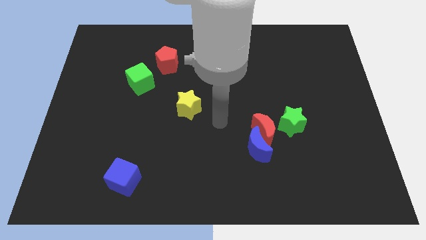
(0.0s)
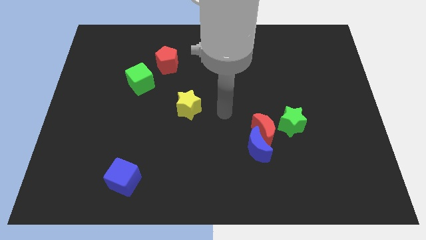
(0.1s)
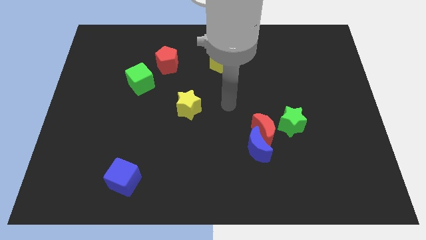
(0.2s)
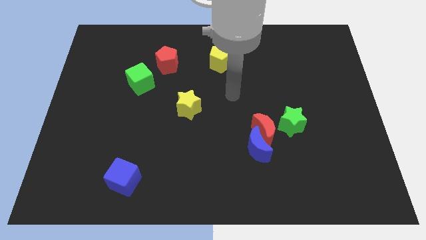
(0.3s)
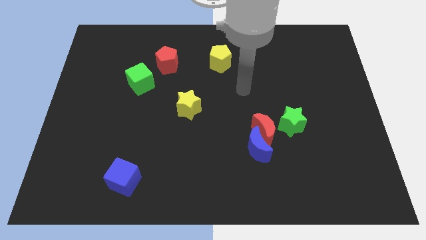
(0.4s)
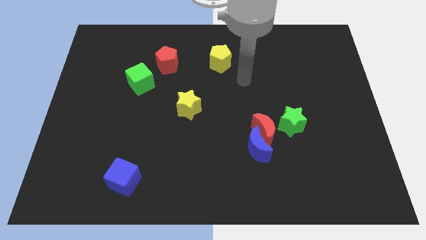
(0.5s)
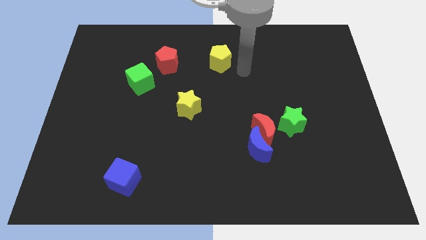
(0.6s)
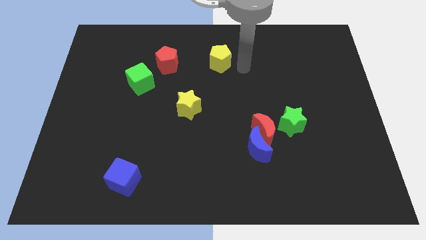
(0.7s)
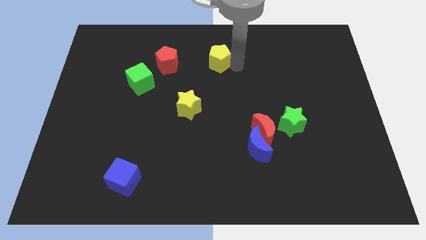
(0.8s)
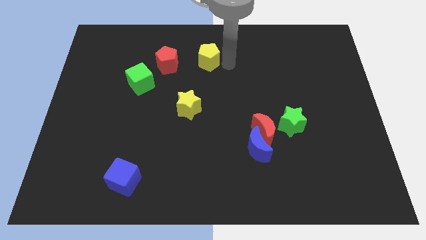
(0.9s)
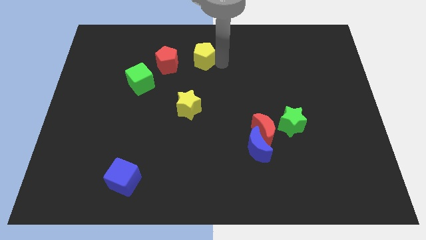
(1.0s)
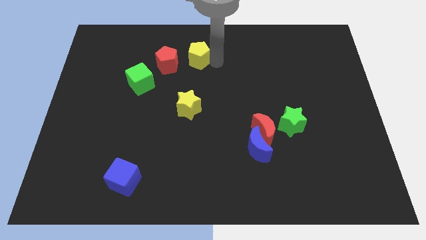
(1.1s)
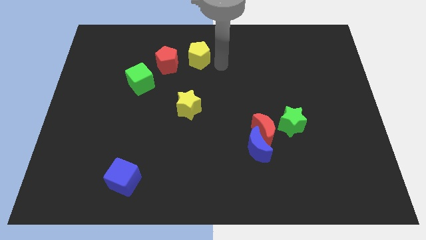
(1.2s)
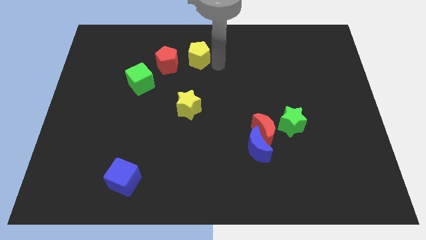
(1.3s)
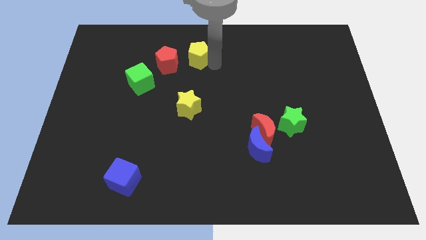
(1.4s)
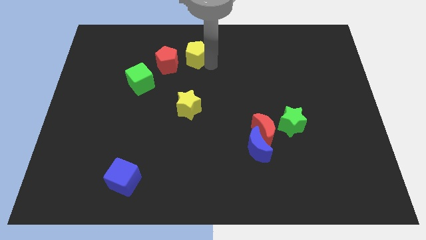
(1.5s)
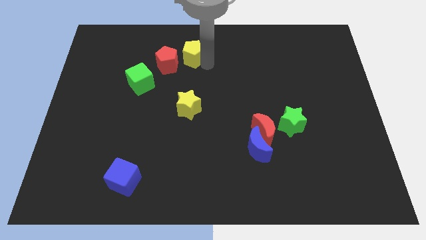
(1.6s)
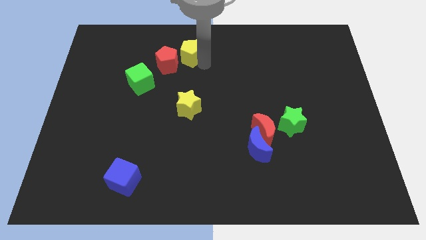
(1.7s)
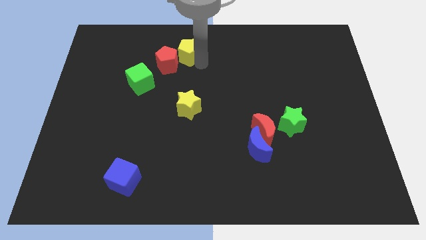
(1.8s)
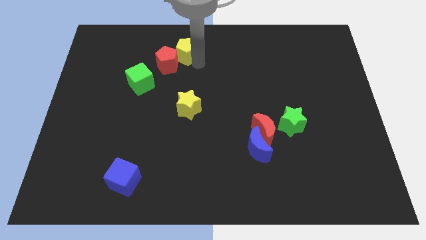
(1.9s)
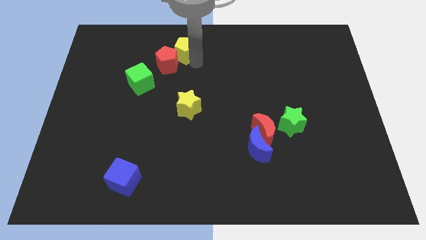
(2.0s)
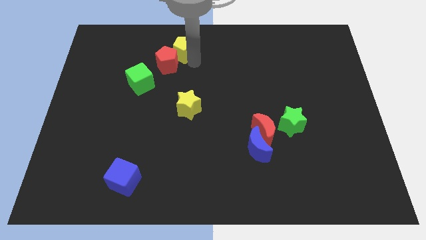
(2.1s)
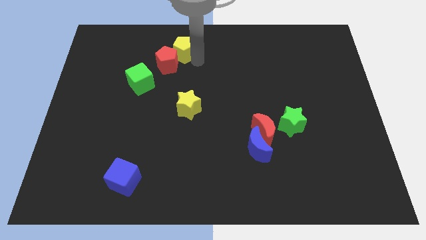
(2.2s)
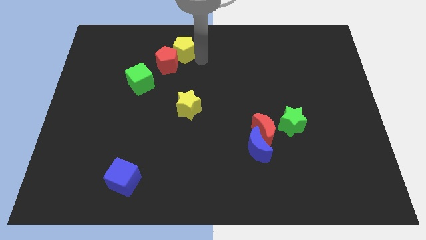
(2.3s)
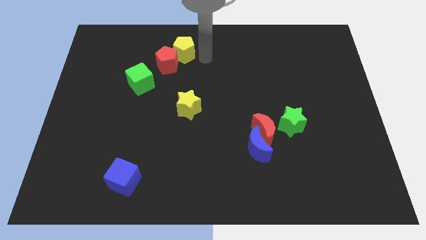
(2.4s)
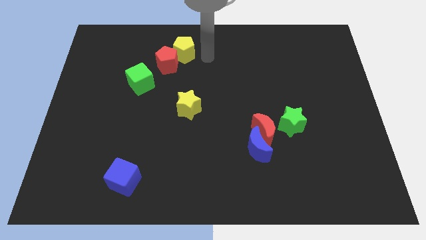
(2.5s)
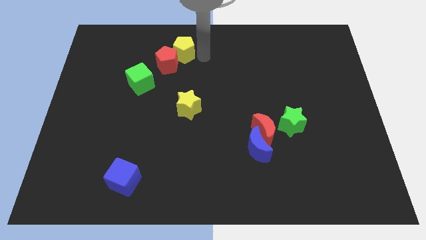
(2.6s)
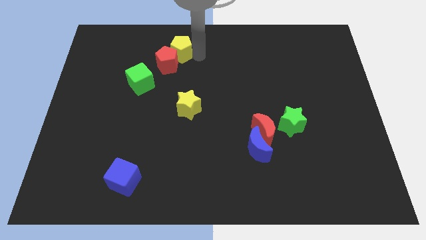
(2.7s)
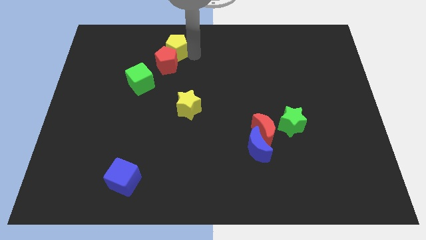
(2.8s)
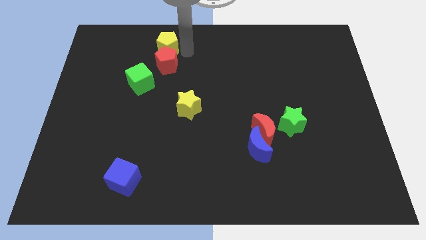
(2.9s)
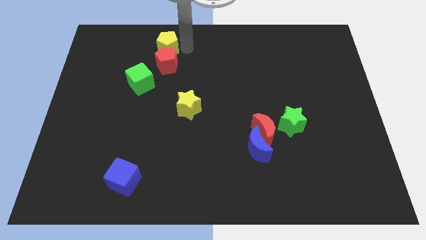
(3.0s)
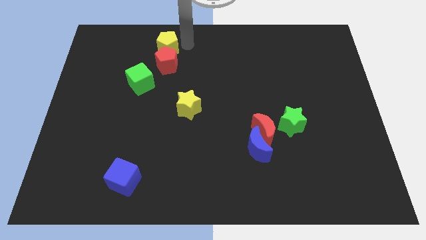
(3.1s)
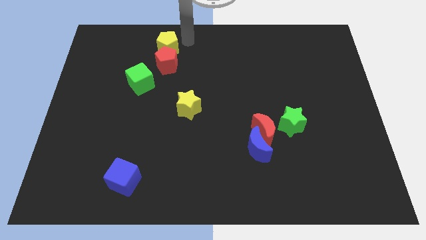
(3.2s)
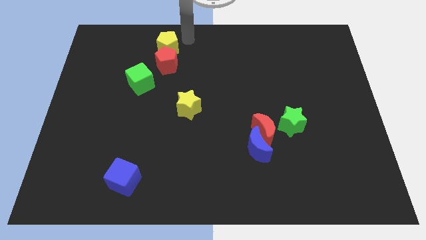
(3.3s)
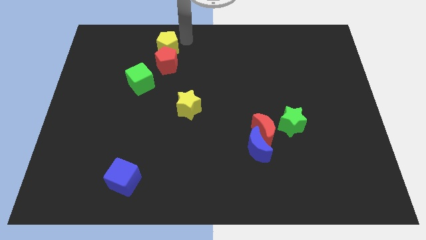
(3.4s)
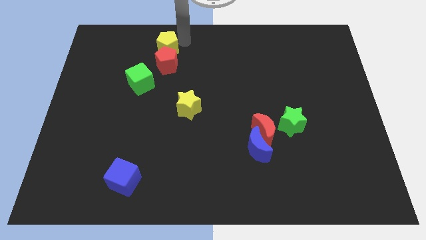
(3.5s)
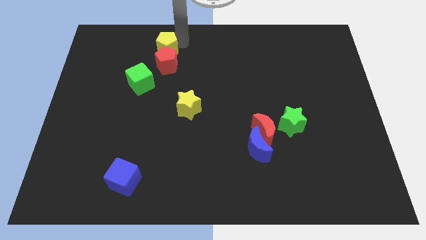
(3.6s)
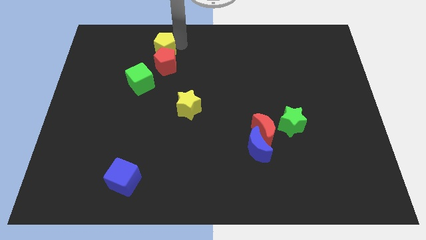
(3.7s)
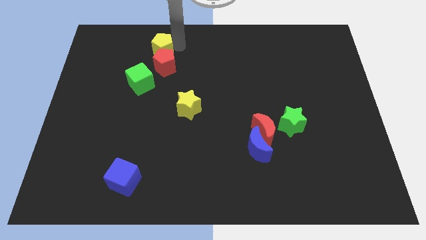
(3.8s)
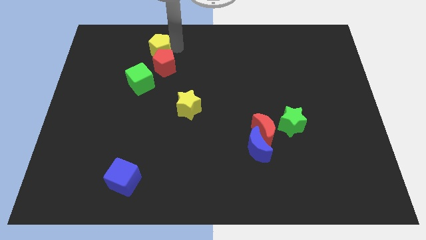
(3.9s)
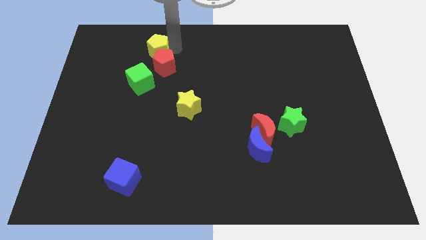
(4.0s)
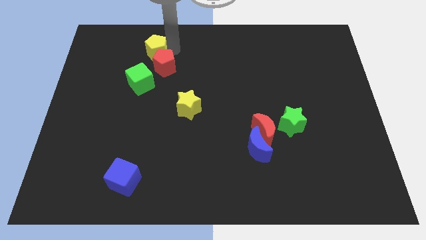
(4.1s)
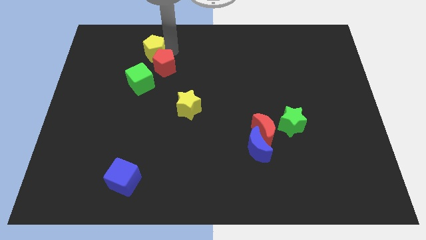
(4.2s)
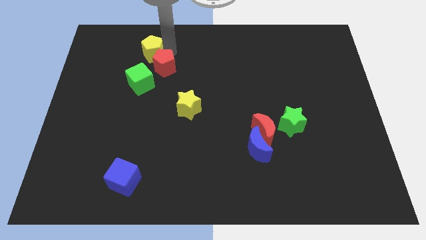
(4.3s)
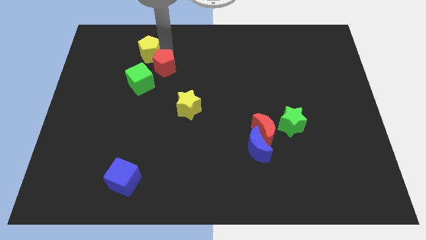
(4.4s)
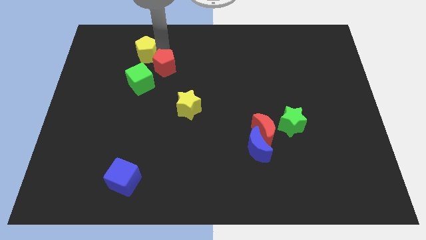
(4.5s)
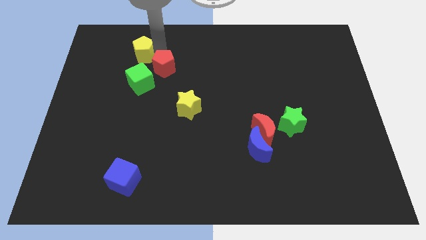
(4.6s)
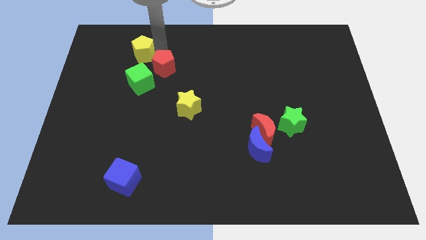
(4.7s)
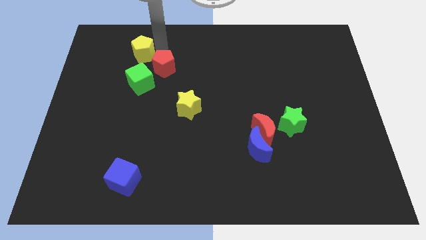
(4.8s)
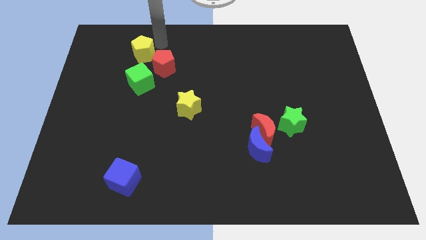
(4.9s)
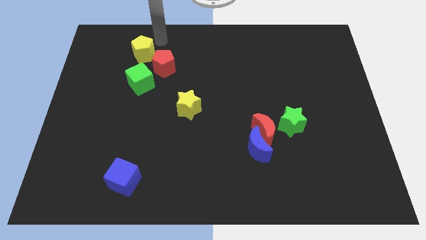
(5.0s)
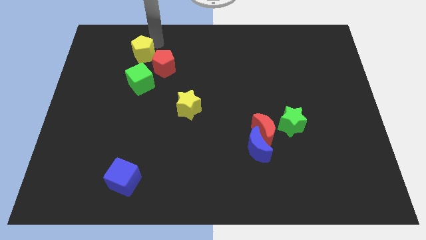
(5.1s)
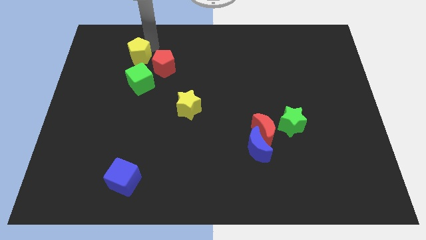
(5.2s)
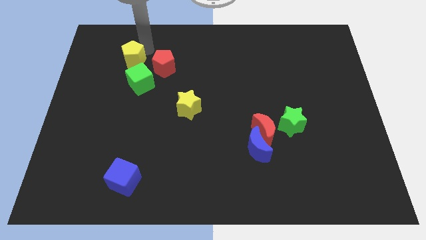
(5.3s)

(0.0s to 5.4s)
move the yellow pentagon to the top left of the green cube

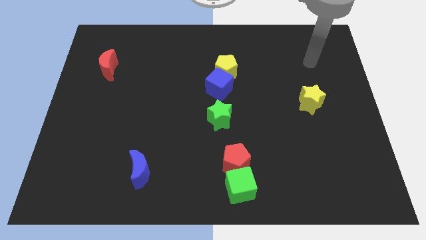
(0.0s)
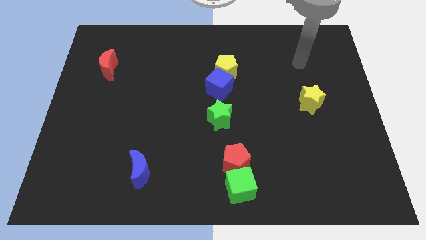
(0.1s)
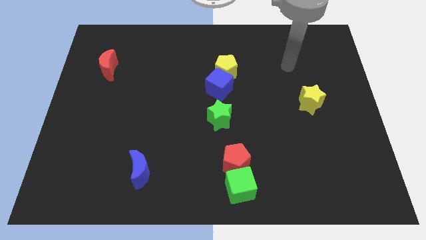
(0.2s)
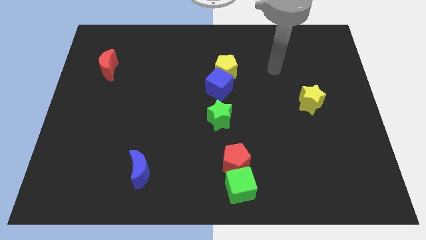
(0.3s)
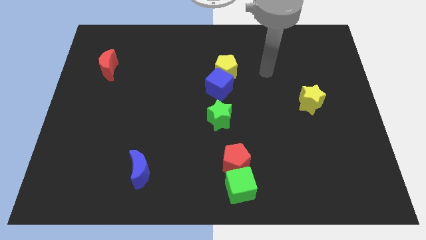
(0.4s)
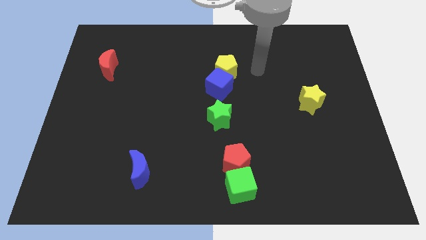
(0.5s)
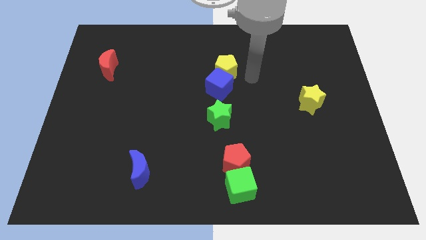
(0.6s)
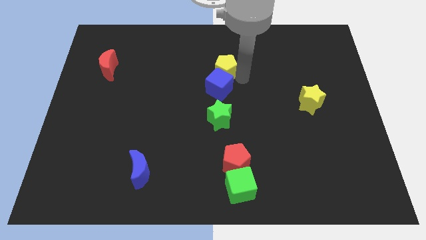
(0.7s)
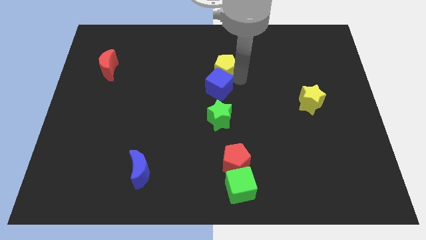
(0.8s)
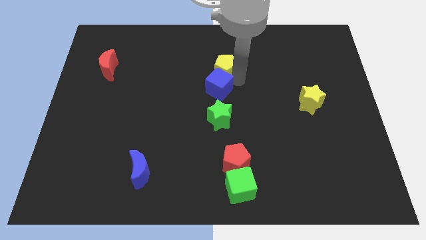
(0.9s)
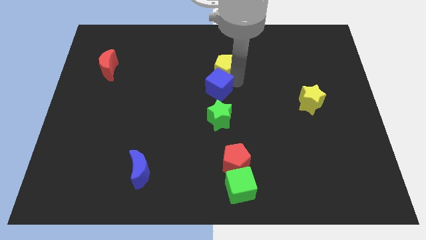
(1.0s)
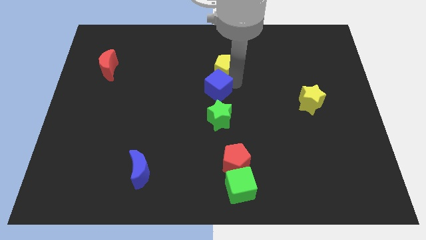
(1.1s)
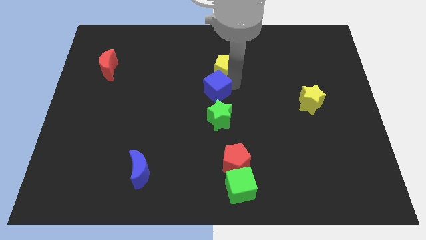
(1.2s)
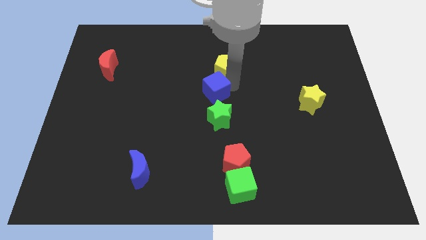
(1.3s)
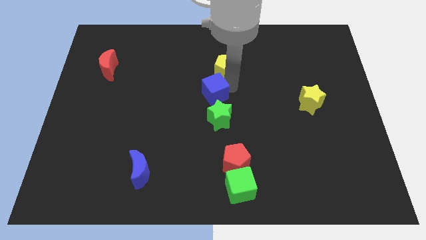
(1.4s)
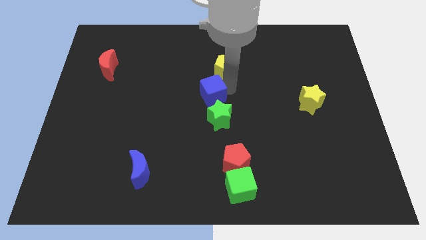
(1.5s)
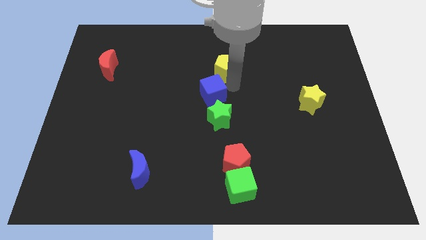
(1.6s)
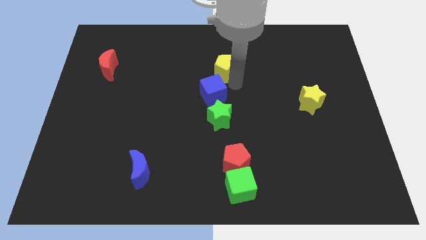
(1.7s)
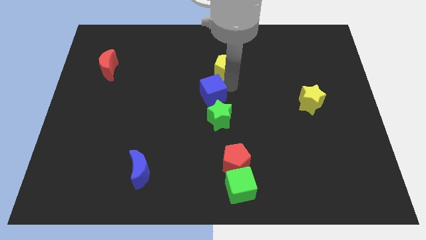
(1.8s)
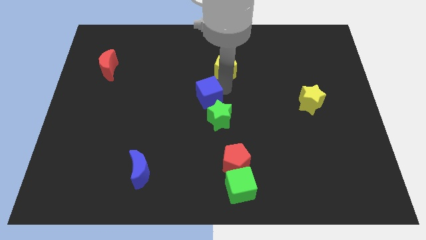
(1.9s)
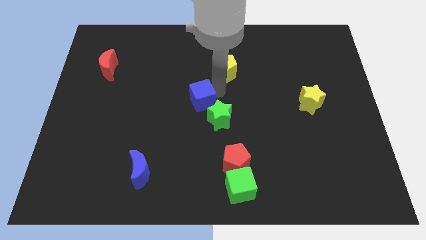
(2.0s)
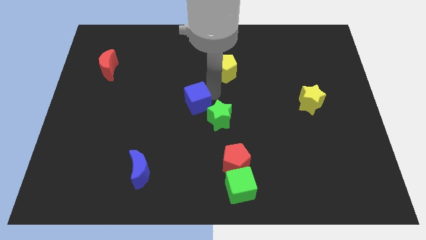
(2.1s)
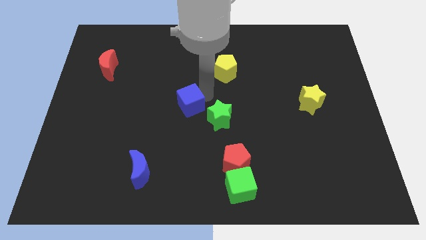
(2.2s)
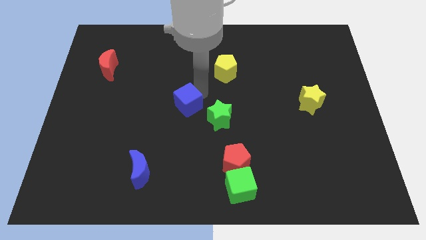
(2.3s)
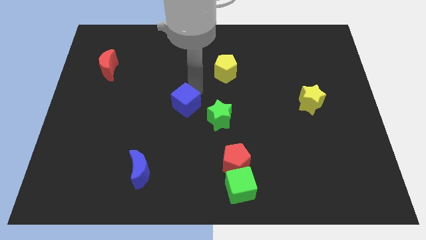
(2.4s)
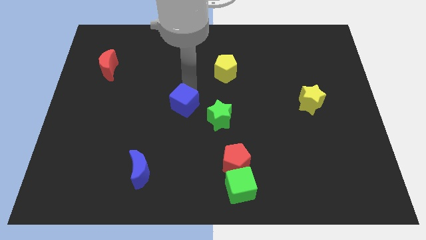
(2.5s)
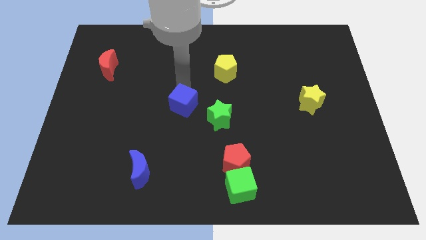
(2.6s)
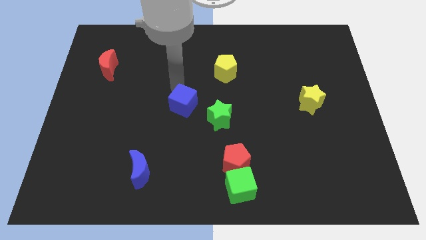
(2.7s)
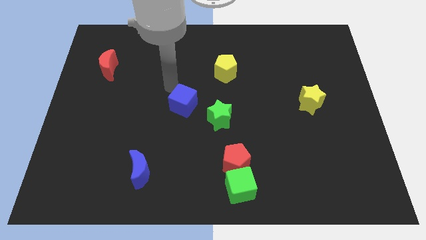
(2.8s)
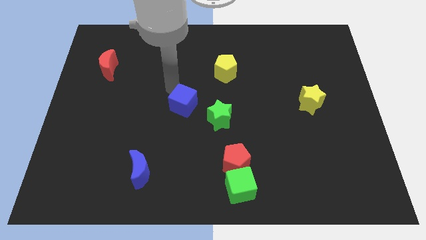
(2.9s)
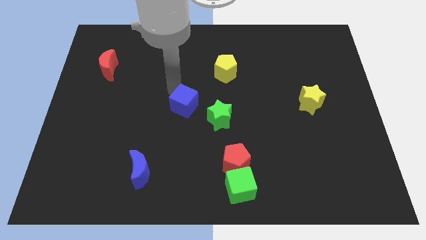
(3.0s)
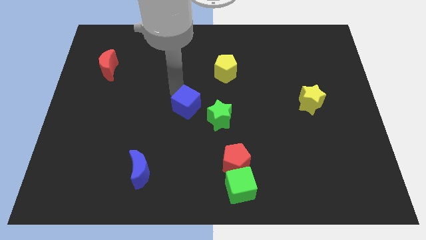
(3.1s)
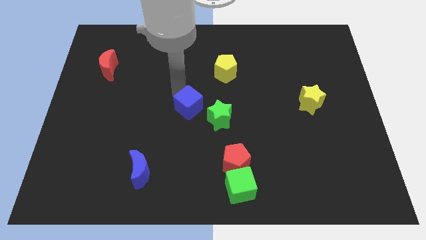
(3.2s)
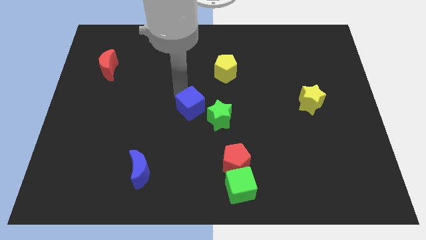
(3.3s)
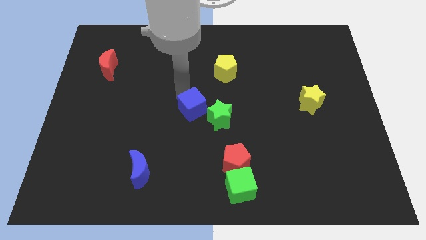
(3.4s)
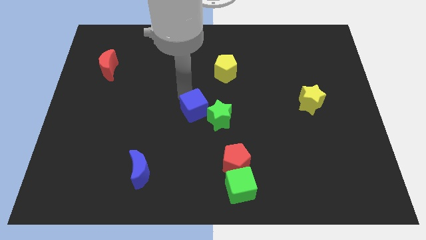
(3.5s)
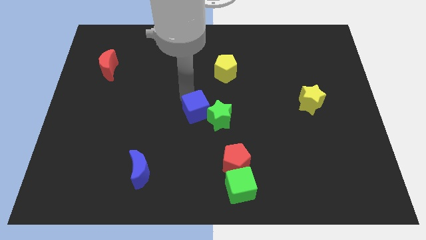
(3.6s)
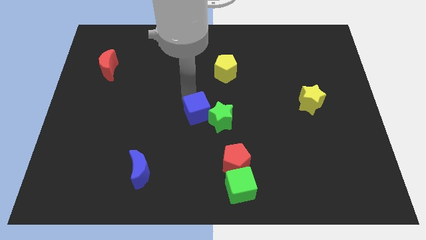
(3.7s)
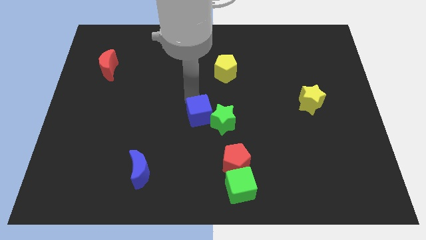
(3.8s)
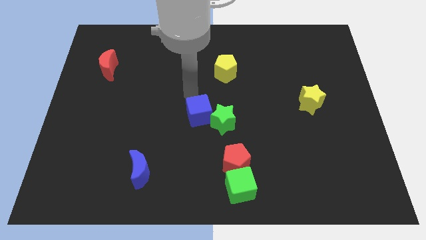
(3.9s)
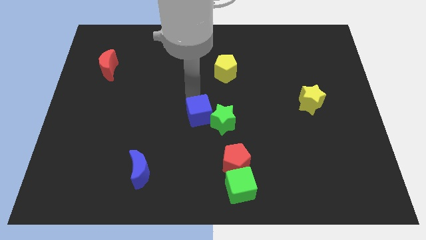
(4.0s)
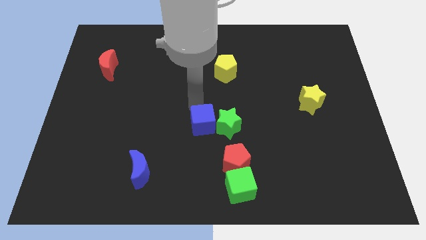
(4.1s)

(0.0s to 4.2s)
push the blue cube diagonally up and to the left of the red pentagon
